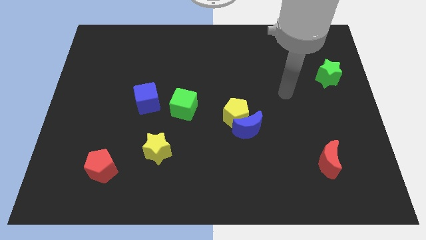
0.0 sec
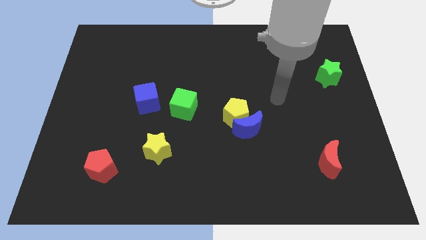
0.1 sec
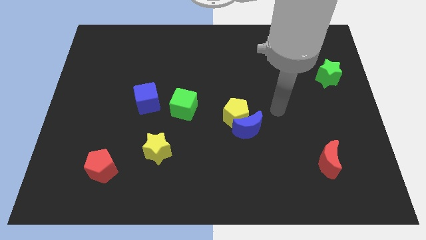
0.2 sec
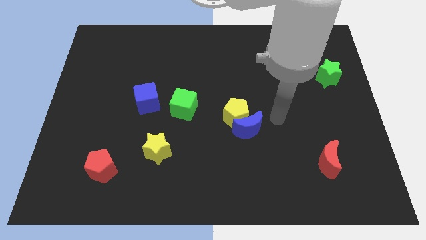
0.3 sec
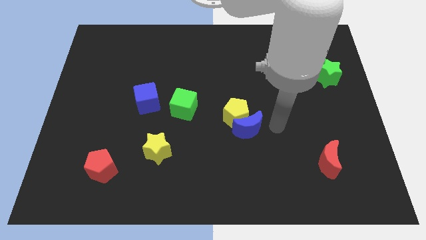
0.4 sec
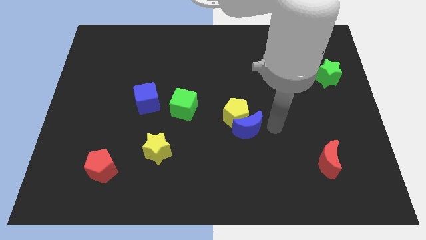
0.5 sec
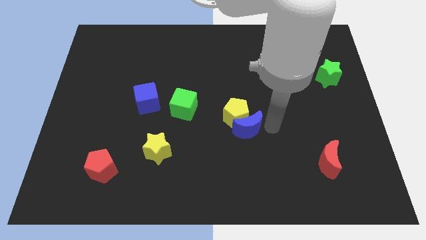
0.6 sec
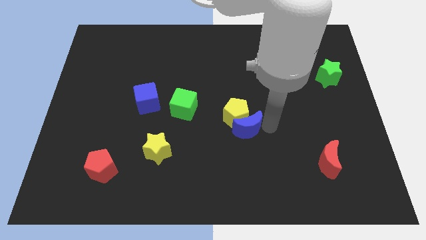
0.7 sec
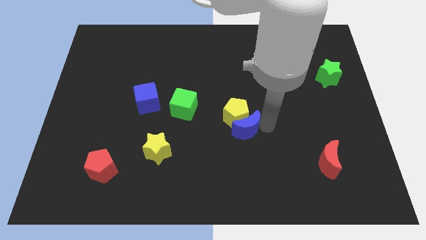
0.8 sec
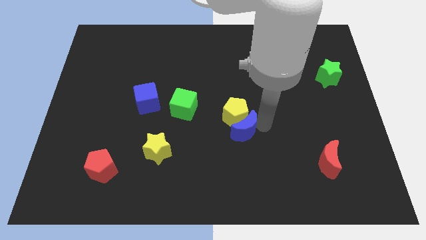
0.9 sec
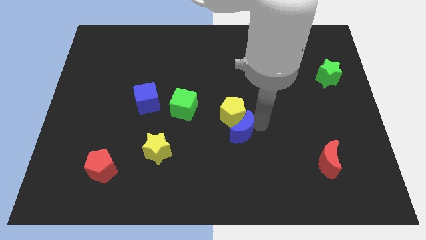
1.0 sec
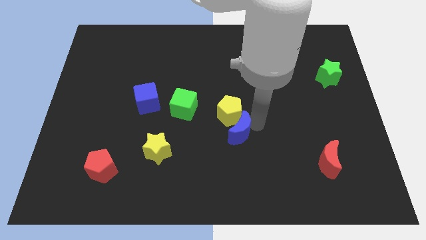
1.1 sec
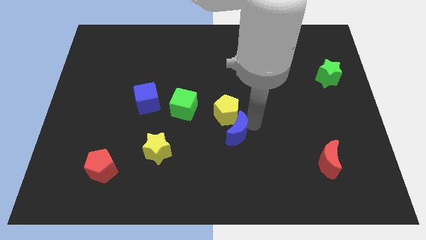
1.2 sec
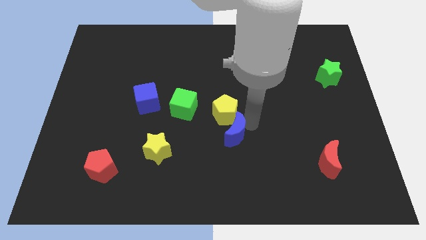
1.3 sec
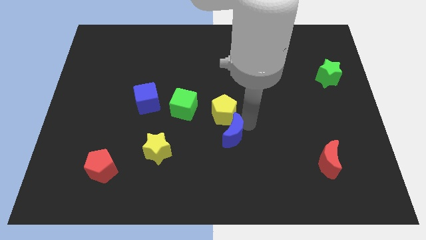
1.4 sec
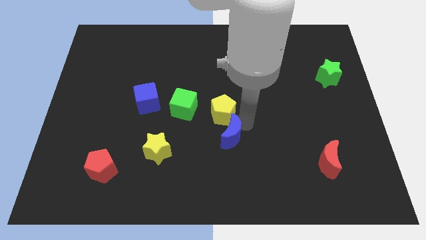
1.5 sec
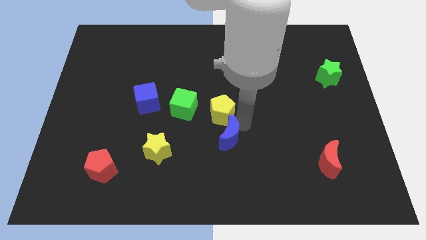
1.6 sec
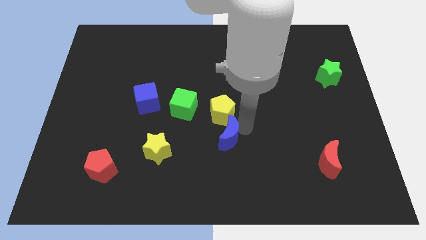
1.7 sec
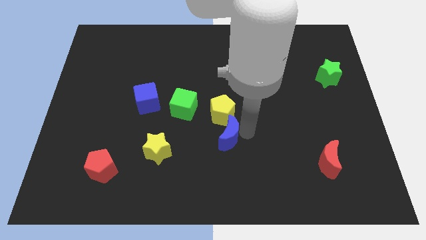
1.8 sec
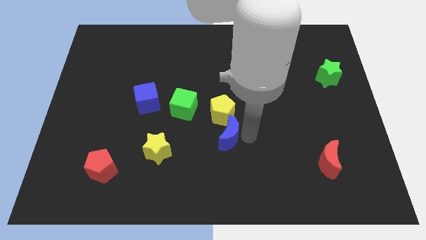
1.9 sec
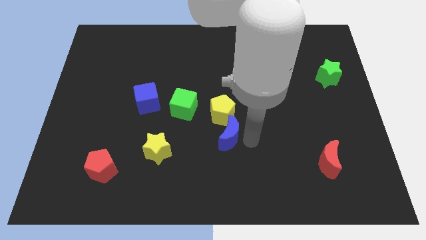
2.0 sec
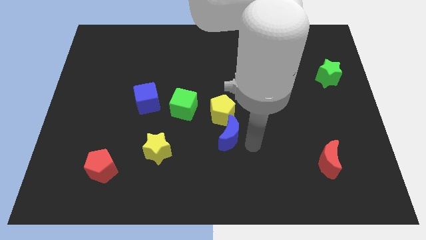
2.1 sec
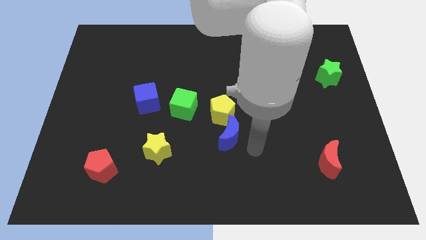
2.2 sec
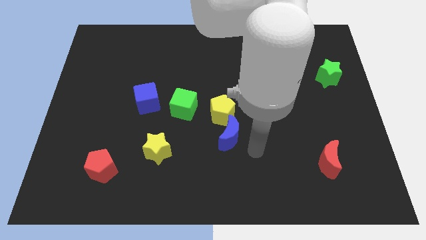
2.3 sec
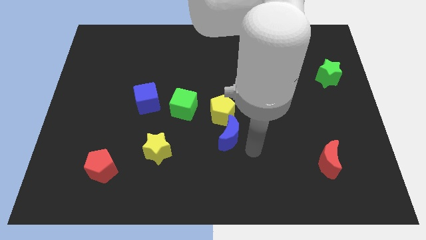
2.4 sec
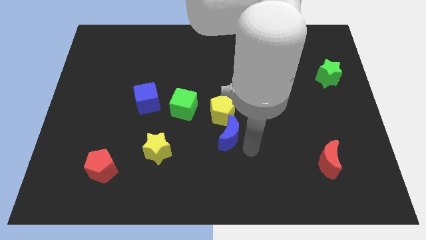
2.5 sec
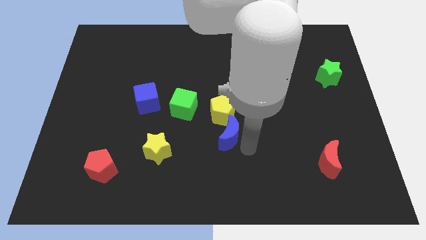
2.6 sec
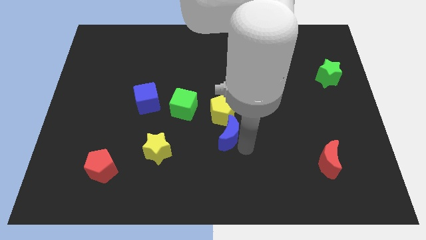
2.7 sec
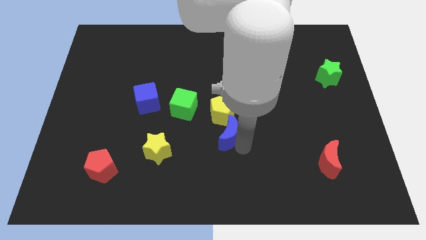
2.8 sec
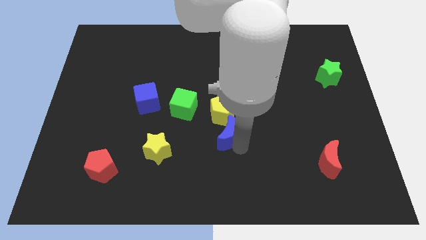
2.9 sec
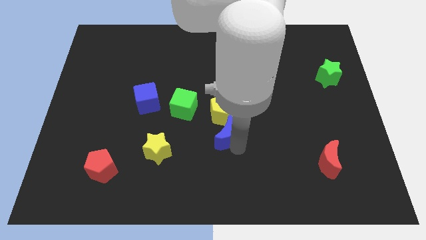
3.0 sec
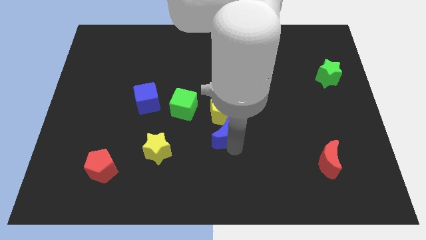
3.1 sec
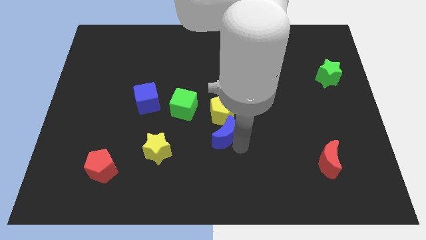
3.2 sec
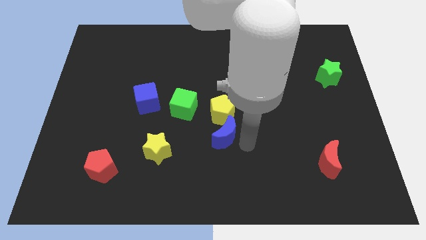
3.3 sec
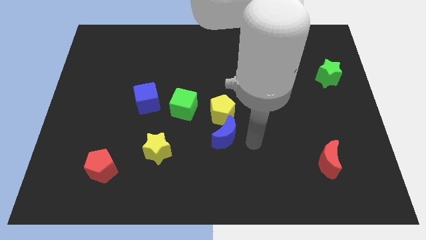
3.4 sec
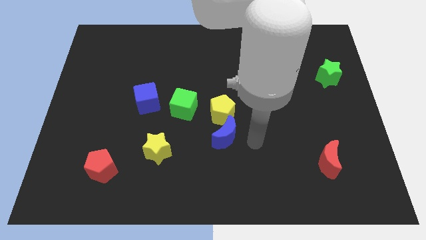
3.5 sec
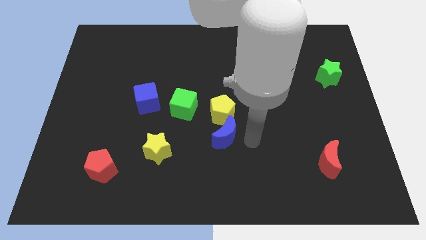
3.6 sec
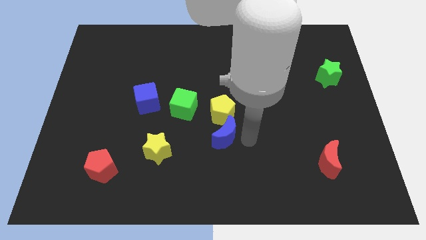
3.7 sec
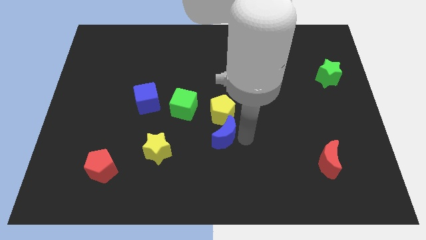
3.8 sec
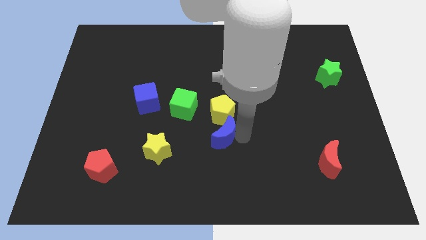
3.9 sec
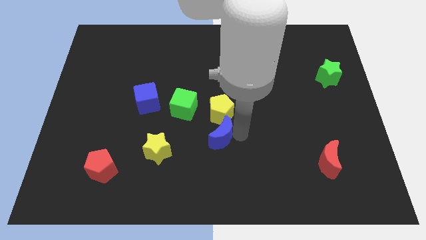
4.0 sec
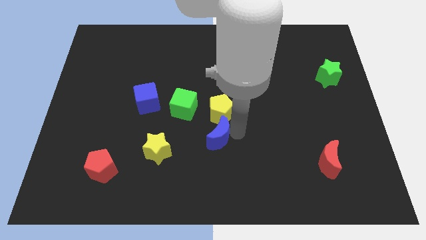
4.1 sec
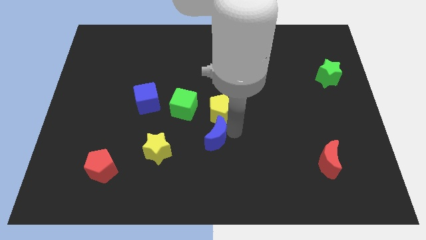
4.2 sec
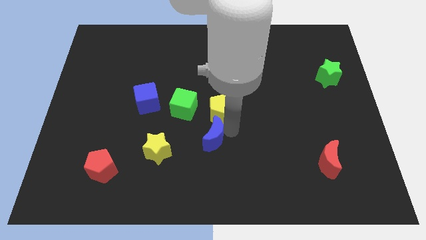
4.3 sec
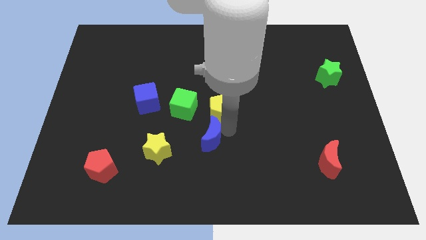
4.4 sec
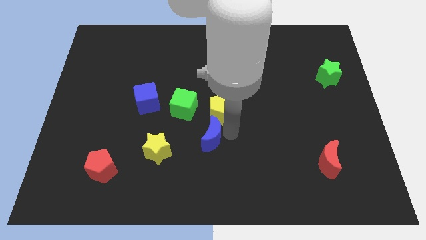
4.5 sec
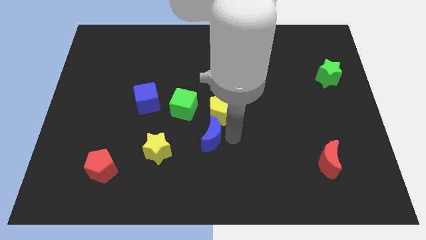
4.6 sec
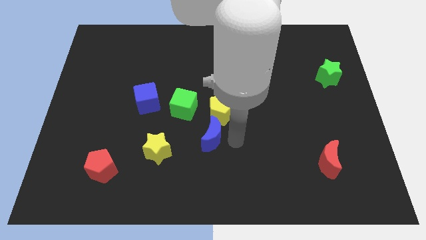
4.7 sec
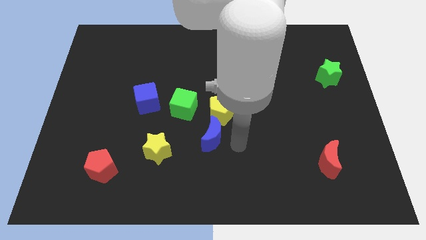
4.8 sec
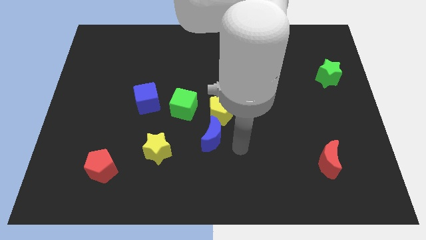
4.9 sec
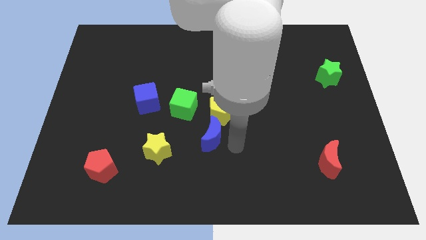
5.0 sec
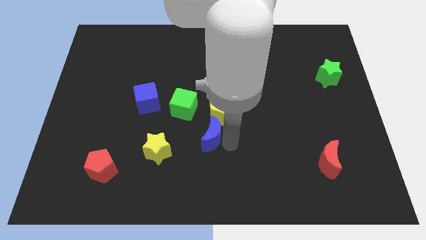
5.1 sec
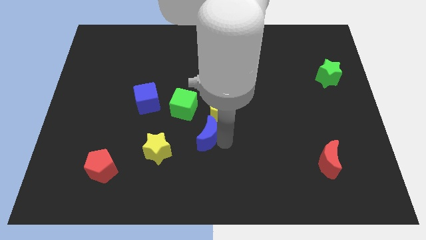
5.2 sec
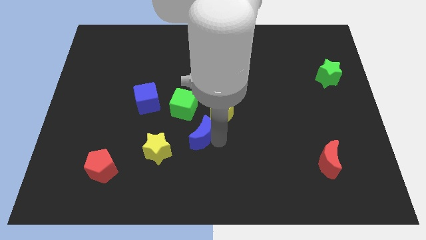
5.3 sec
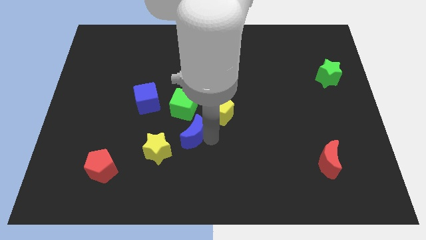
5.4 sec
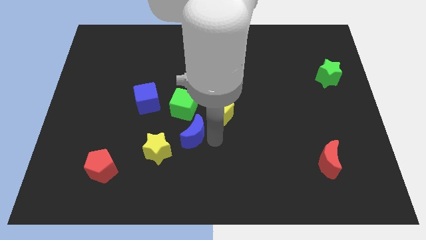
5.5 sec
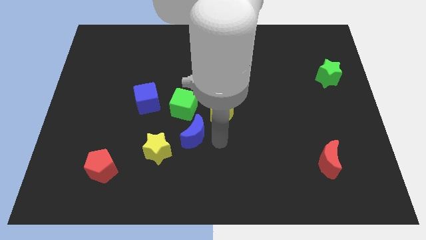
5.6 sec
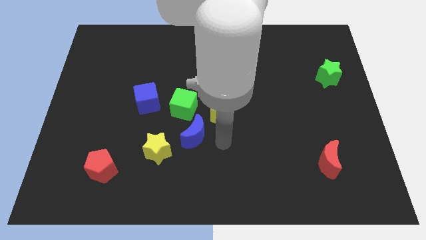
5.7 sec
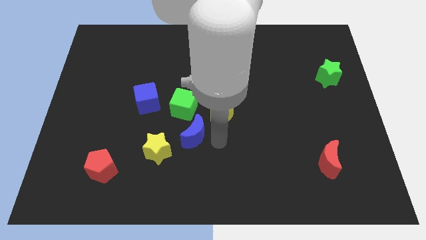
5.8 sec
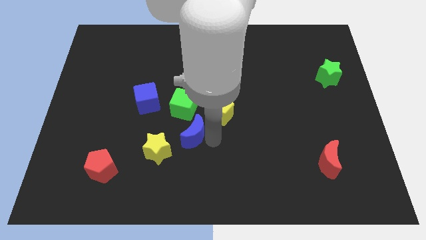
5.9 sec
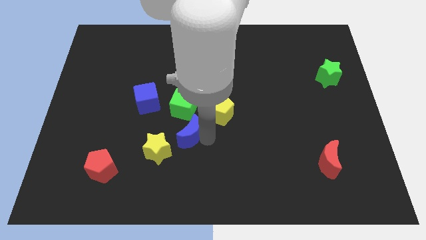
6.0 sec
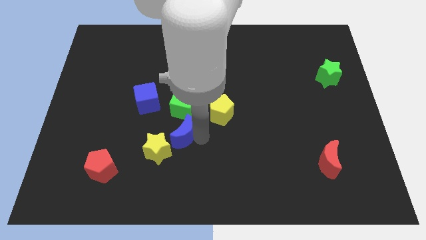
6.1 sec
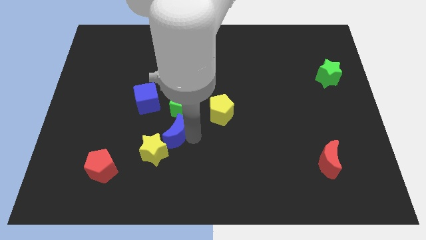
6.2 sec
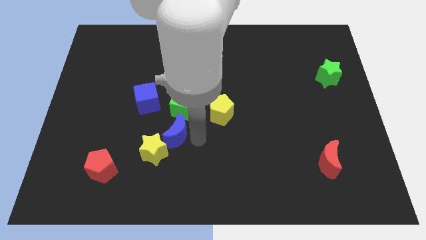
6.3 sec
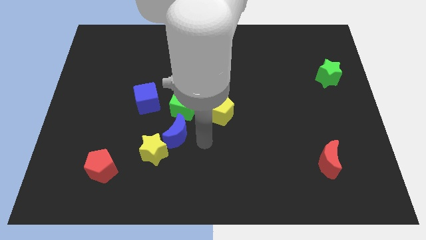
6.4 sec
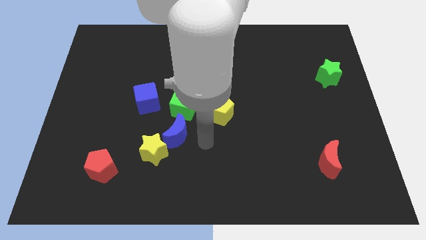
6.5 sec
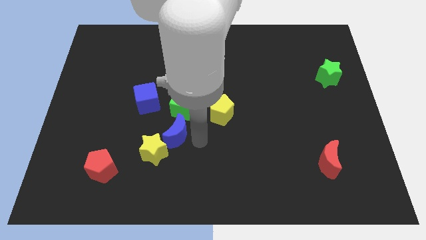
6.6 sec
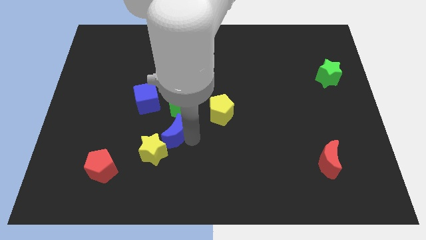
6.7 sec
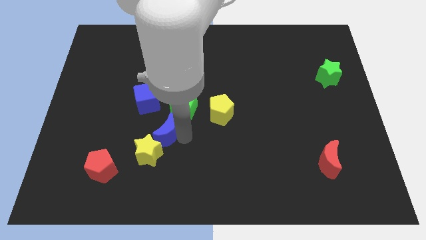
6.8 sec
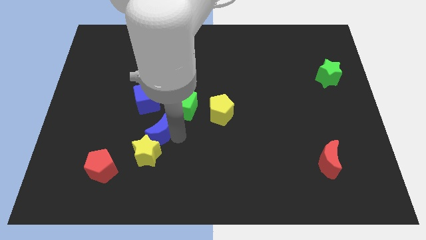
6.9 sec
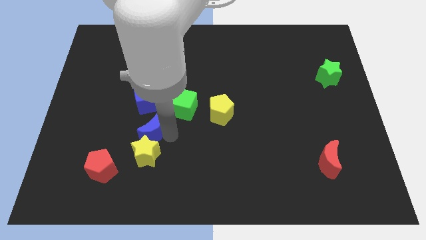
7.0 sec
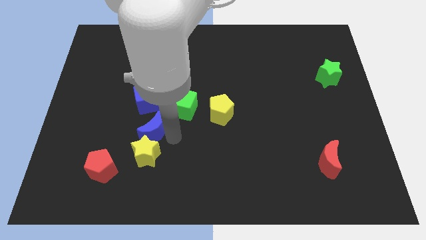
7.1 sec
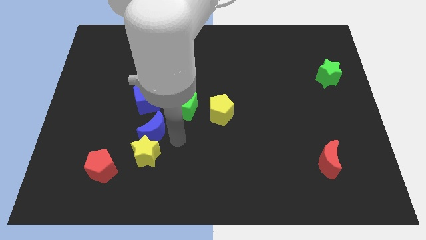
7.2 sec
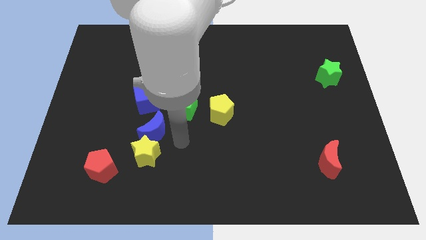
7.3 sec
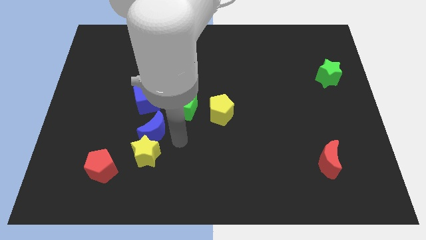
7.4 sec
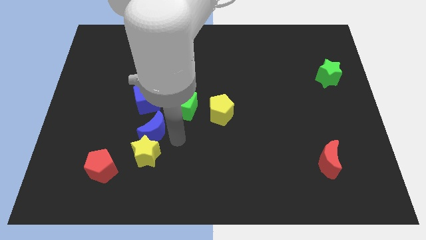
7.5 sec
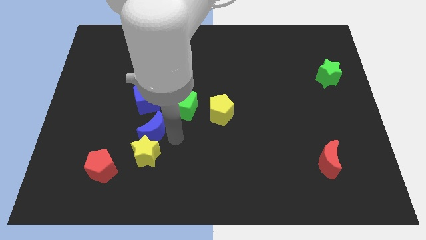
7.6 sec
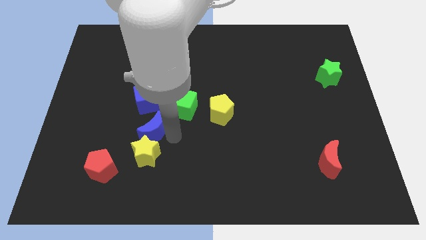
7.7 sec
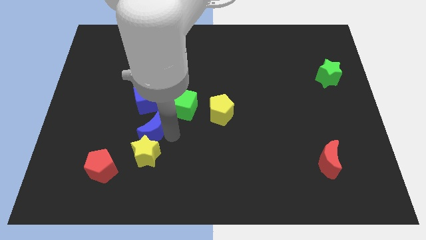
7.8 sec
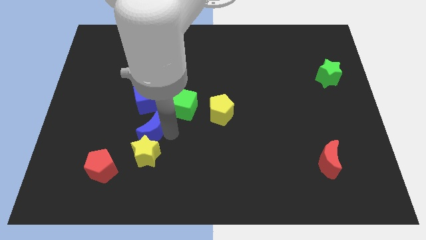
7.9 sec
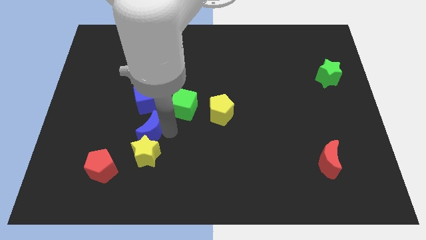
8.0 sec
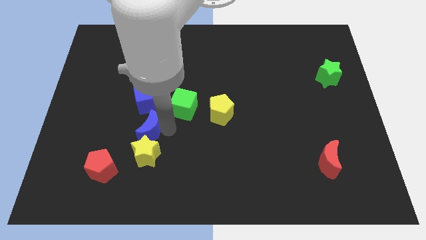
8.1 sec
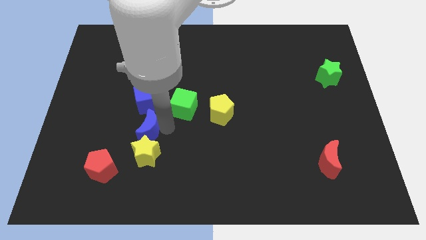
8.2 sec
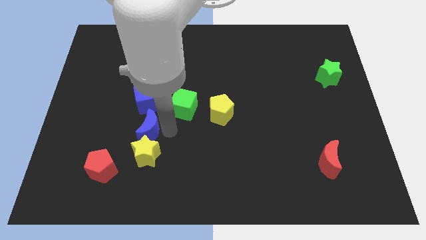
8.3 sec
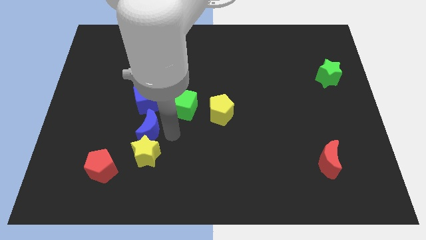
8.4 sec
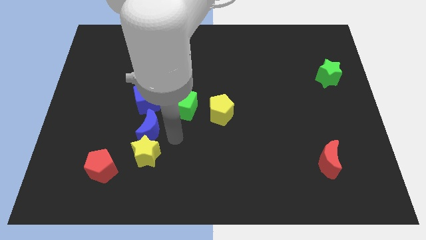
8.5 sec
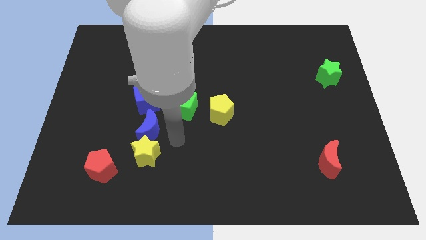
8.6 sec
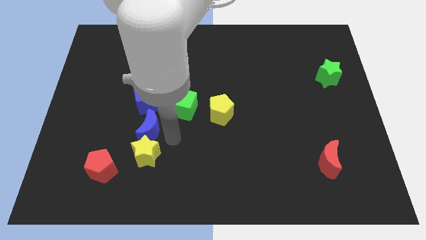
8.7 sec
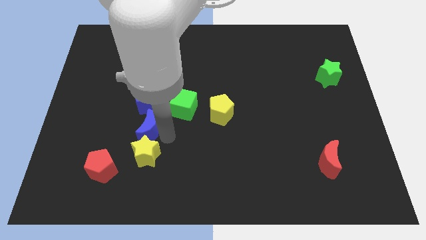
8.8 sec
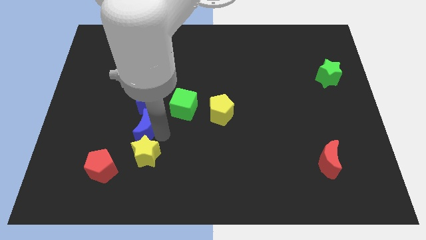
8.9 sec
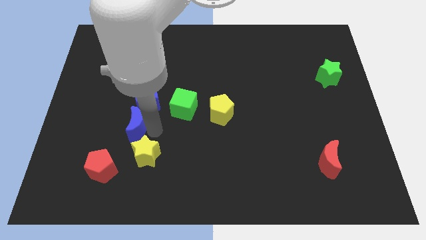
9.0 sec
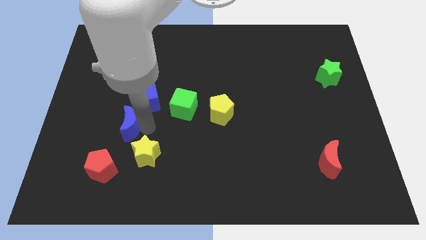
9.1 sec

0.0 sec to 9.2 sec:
slide the blue moon to the top side of the red pentagon
